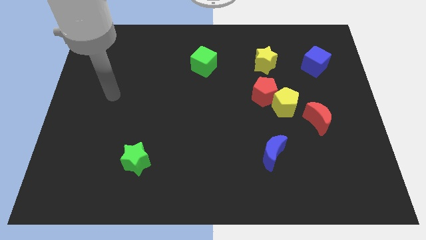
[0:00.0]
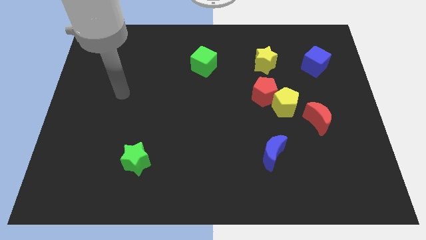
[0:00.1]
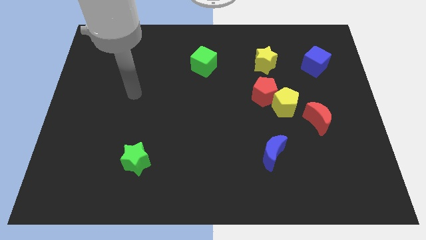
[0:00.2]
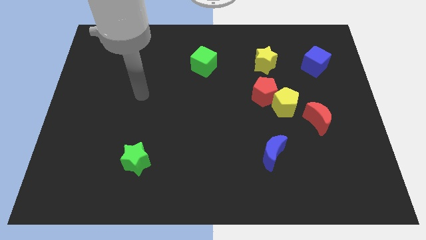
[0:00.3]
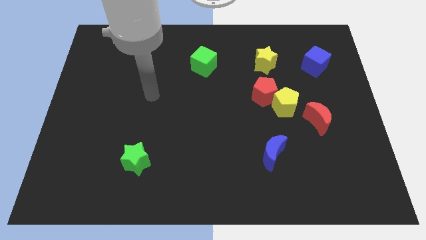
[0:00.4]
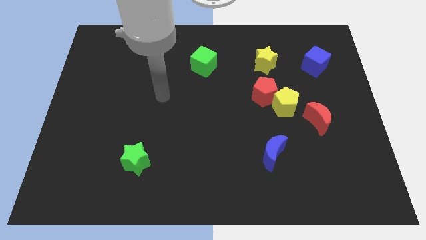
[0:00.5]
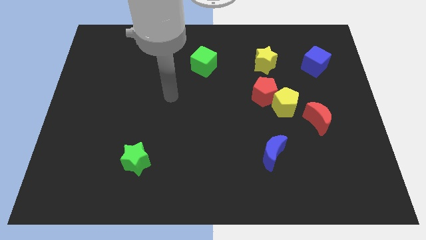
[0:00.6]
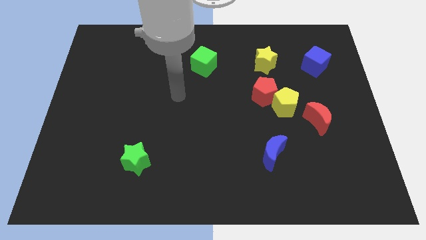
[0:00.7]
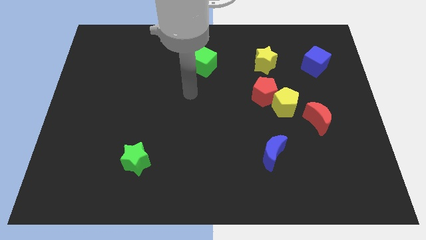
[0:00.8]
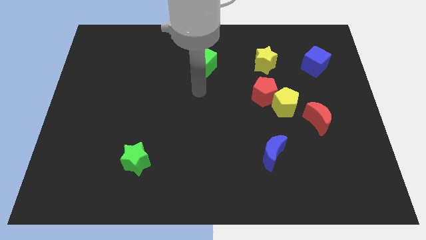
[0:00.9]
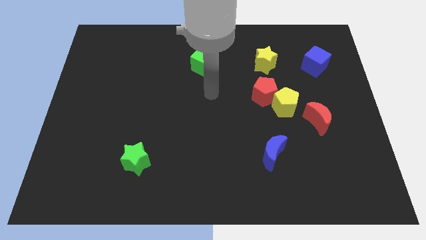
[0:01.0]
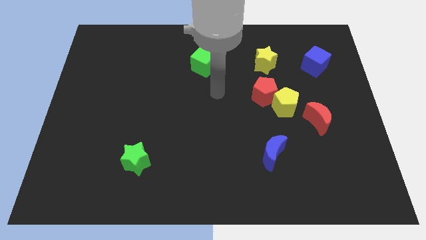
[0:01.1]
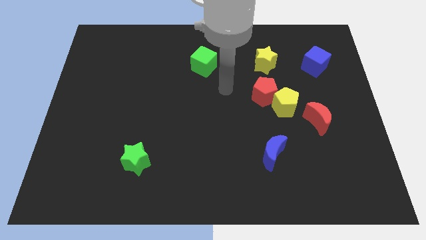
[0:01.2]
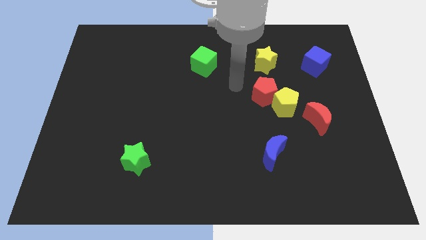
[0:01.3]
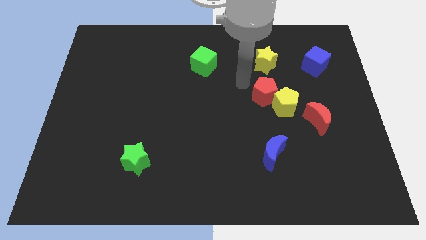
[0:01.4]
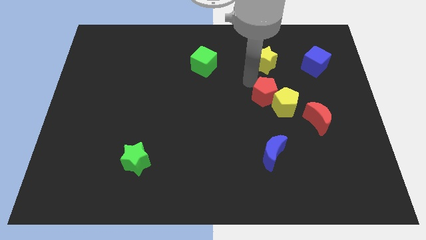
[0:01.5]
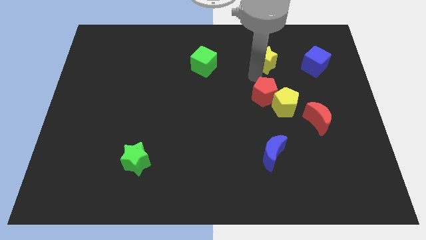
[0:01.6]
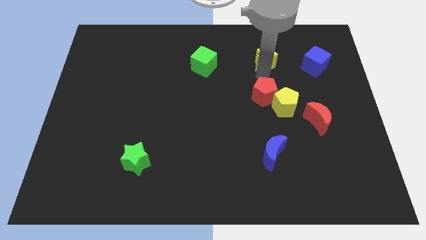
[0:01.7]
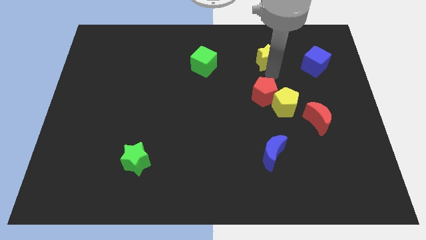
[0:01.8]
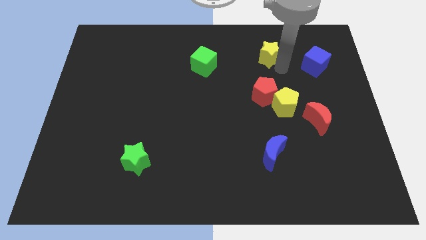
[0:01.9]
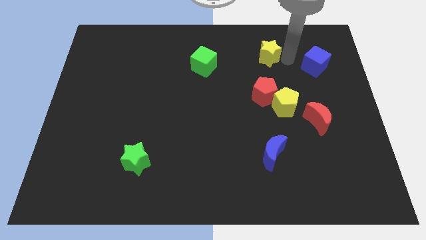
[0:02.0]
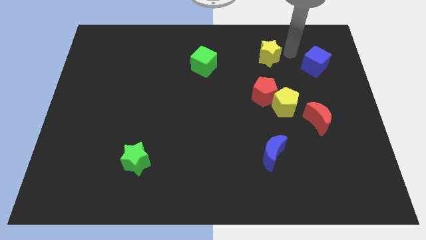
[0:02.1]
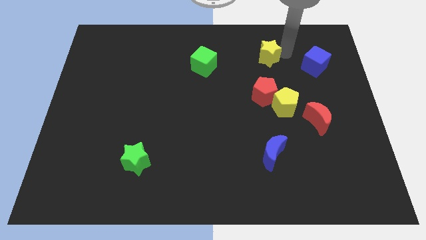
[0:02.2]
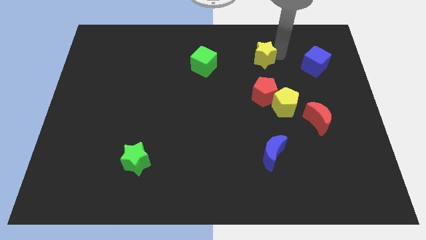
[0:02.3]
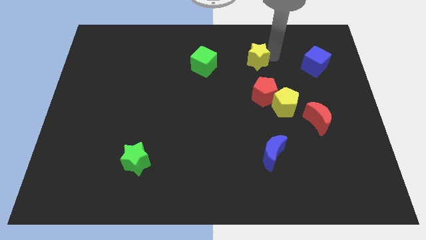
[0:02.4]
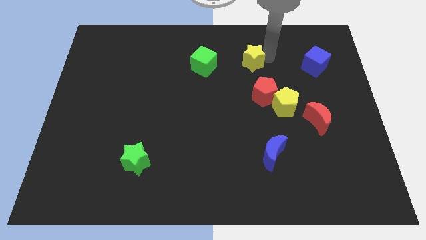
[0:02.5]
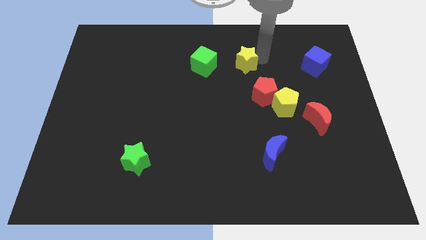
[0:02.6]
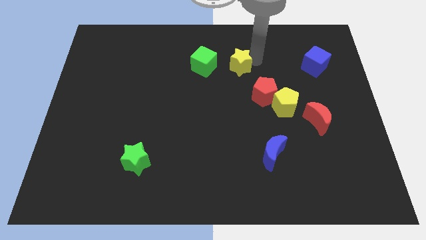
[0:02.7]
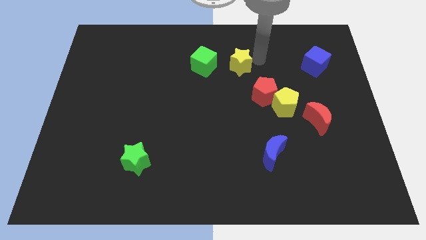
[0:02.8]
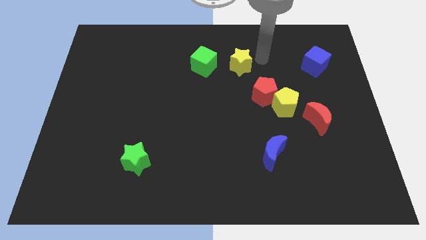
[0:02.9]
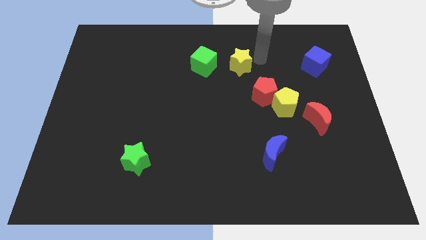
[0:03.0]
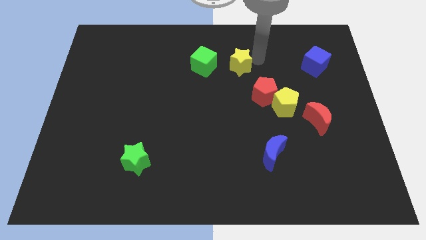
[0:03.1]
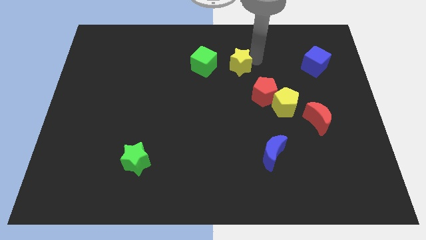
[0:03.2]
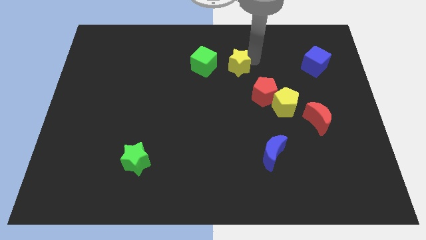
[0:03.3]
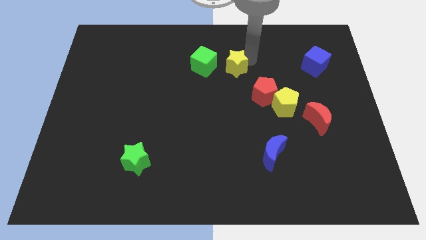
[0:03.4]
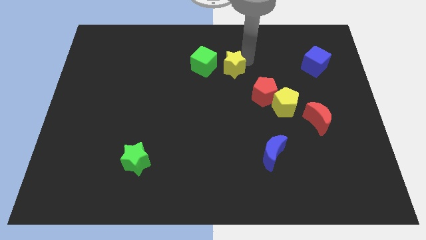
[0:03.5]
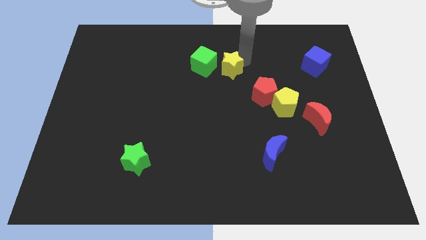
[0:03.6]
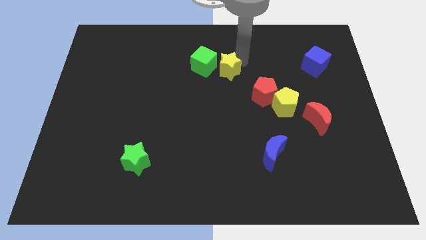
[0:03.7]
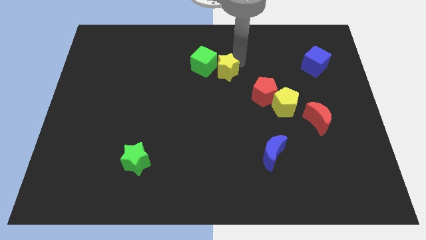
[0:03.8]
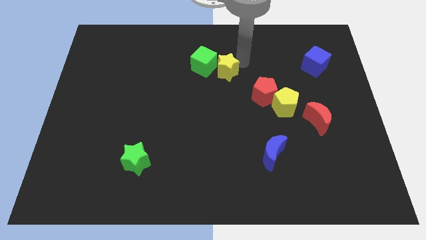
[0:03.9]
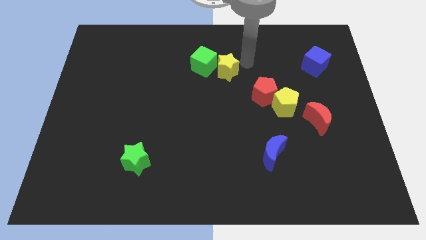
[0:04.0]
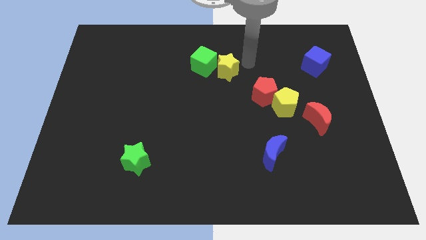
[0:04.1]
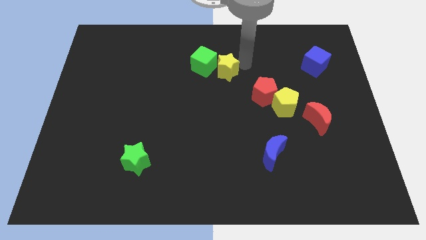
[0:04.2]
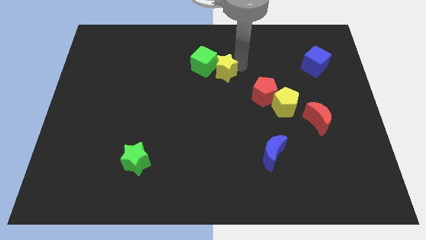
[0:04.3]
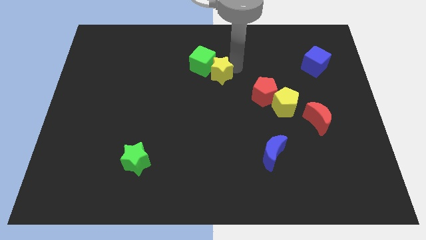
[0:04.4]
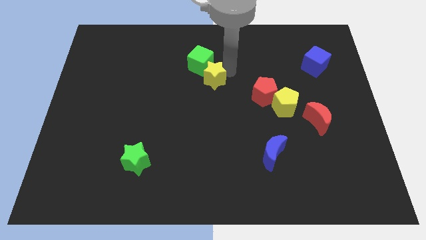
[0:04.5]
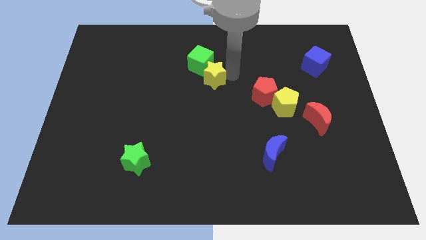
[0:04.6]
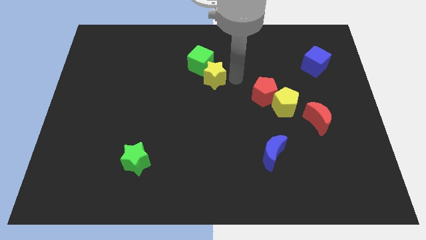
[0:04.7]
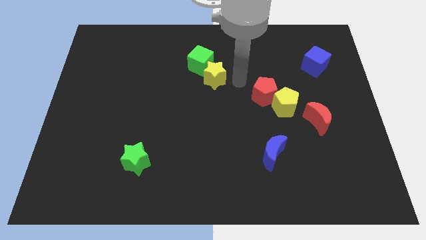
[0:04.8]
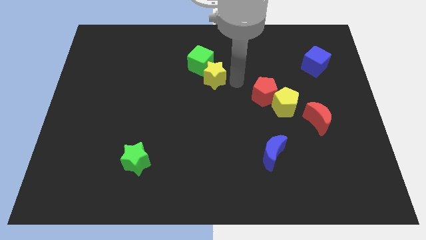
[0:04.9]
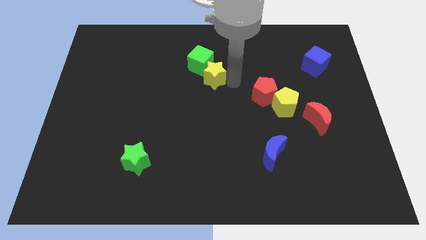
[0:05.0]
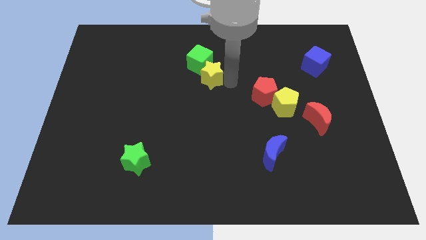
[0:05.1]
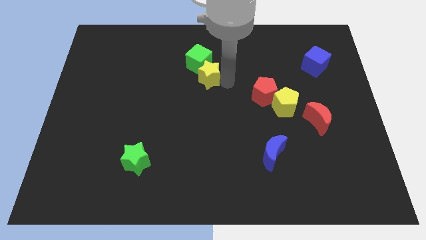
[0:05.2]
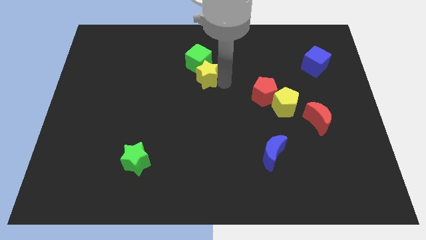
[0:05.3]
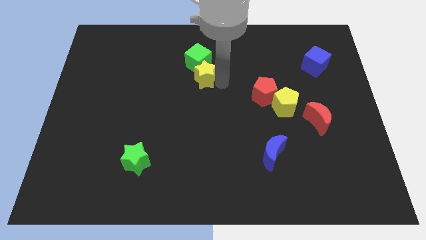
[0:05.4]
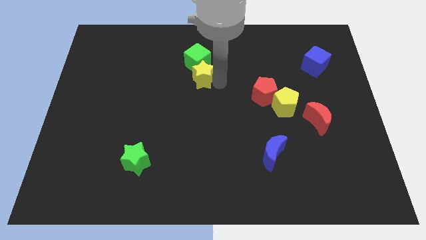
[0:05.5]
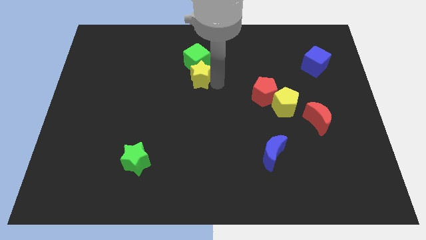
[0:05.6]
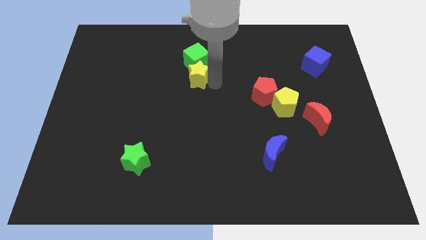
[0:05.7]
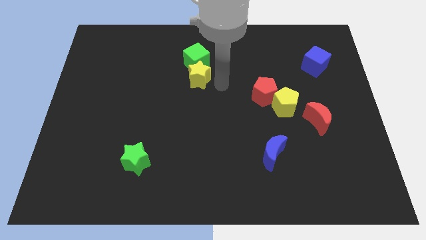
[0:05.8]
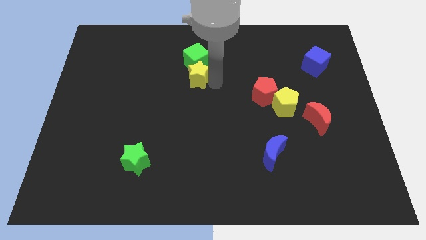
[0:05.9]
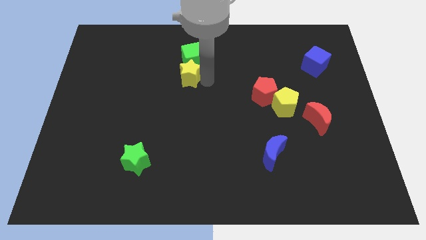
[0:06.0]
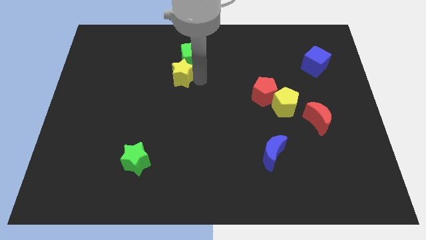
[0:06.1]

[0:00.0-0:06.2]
push the yellow star to the left

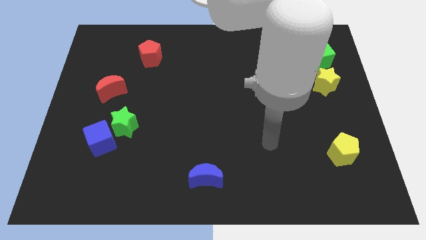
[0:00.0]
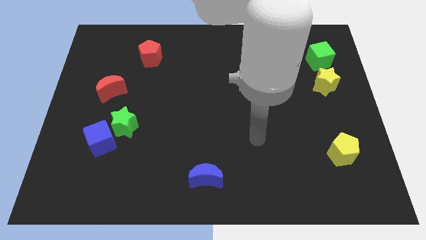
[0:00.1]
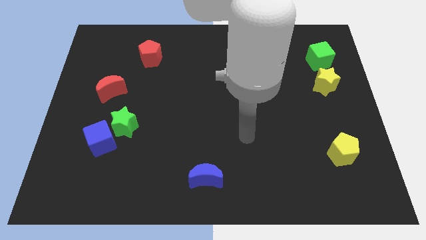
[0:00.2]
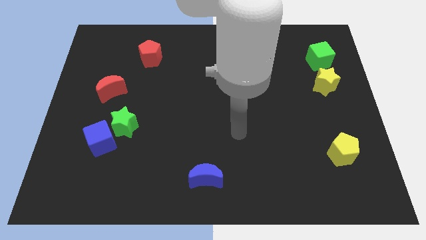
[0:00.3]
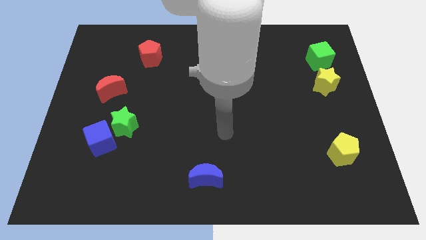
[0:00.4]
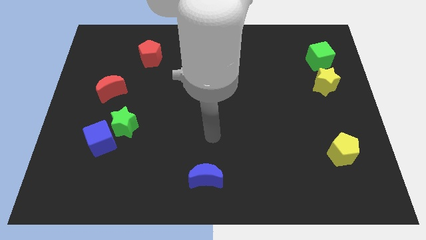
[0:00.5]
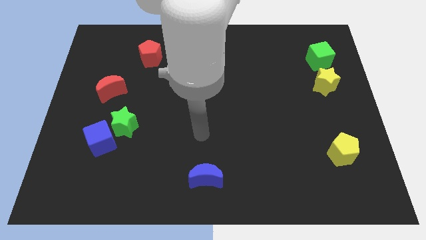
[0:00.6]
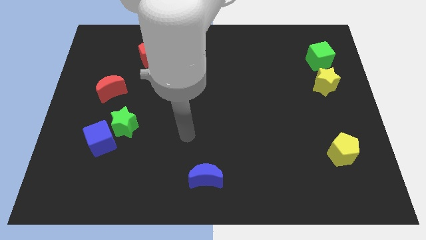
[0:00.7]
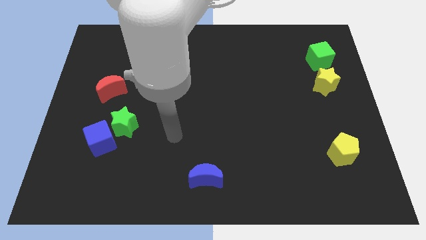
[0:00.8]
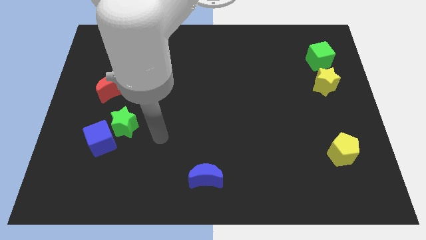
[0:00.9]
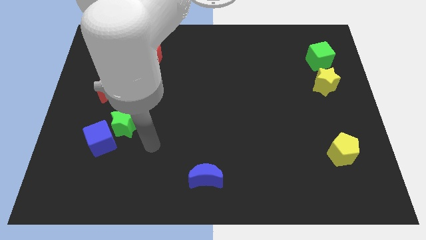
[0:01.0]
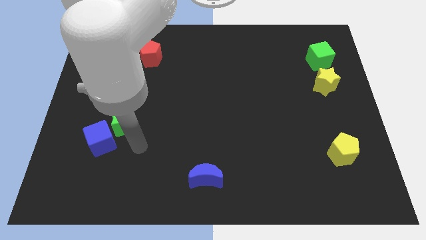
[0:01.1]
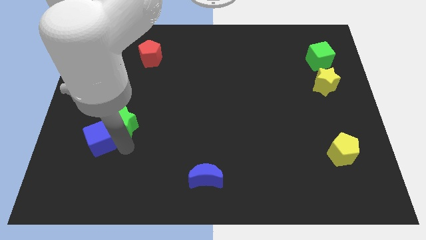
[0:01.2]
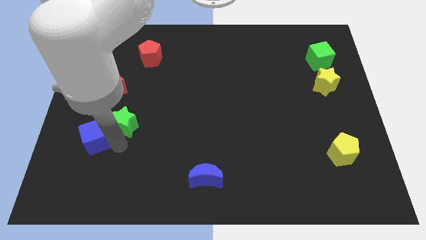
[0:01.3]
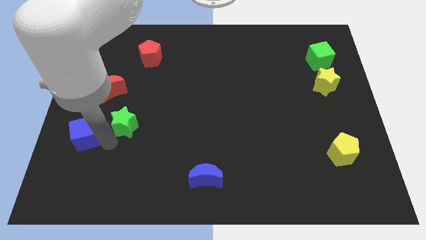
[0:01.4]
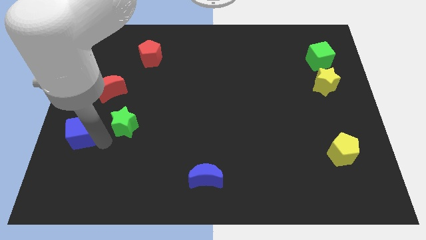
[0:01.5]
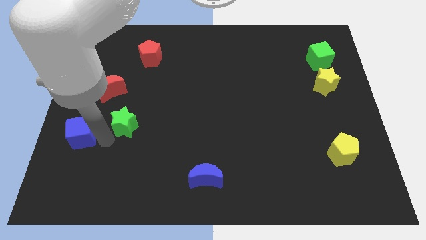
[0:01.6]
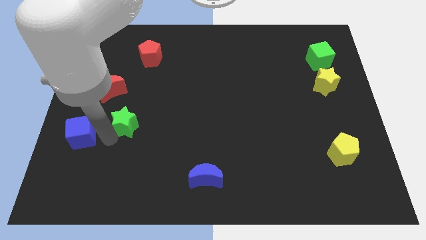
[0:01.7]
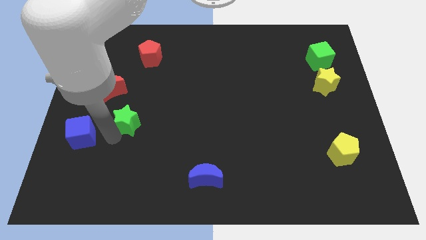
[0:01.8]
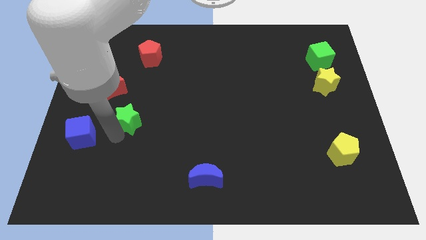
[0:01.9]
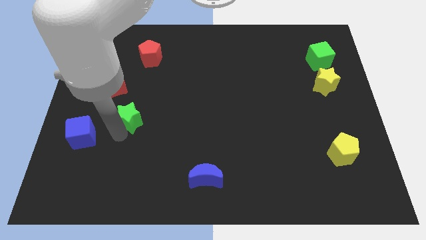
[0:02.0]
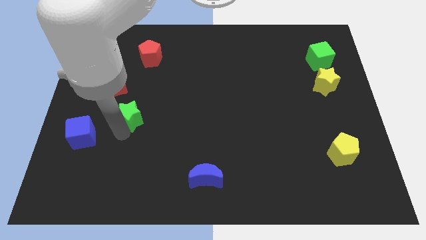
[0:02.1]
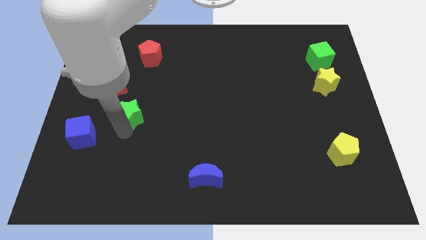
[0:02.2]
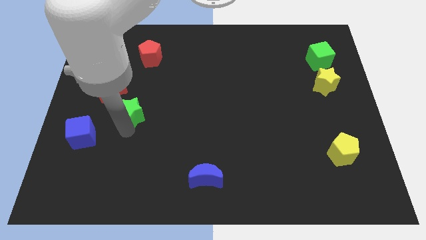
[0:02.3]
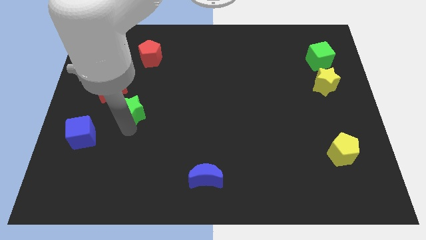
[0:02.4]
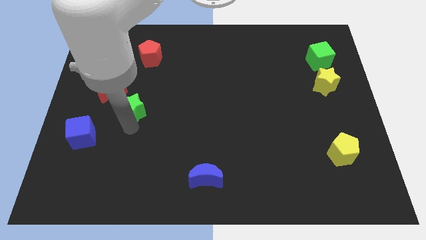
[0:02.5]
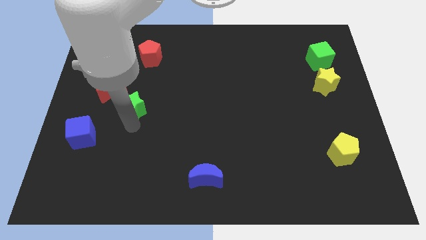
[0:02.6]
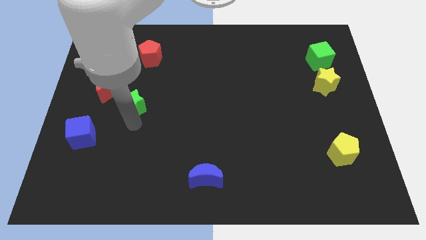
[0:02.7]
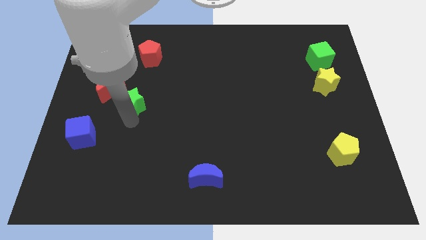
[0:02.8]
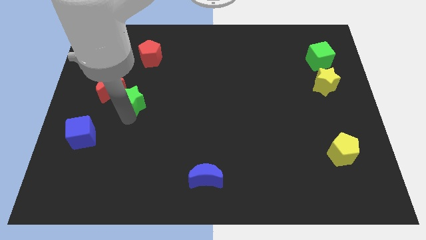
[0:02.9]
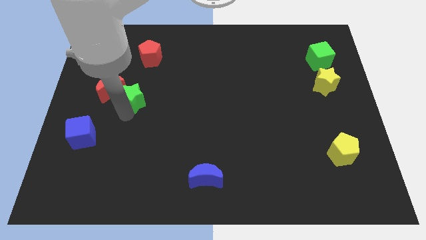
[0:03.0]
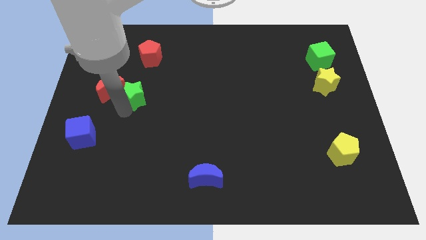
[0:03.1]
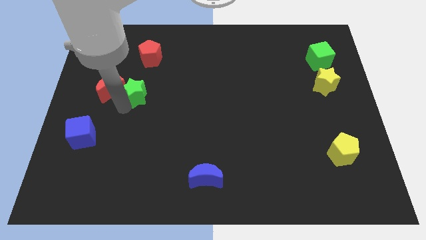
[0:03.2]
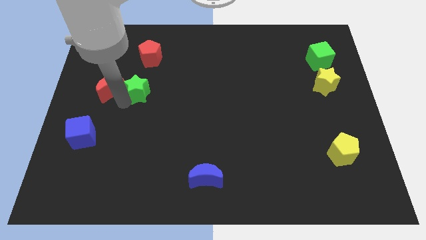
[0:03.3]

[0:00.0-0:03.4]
slightly slide the green star up and then to the right
